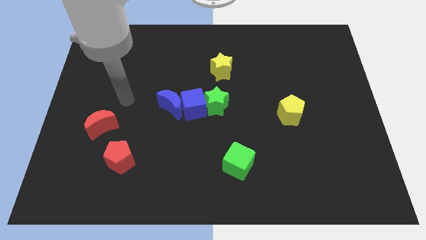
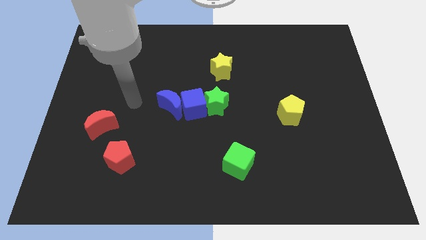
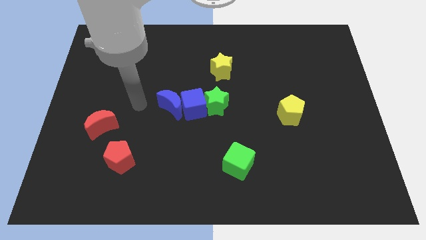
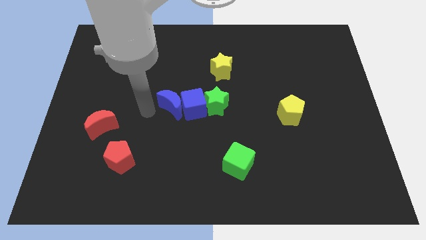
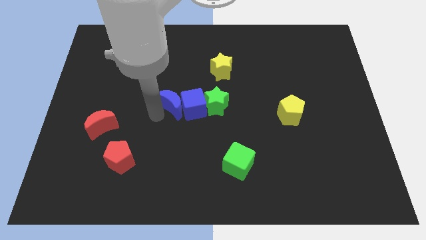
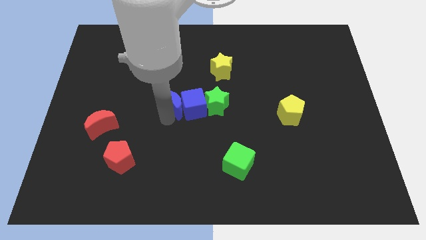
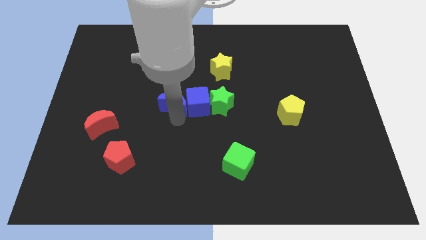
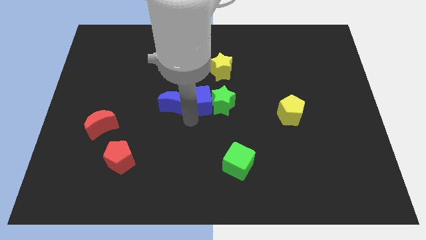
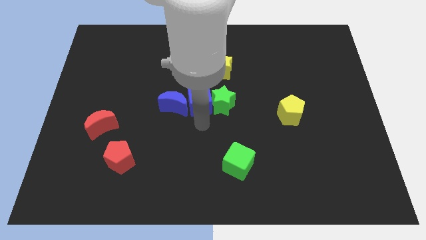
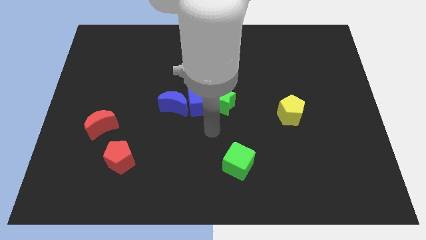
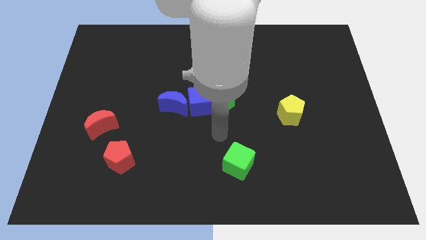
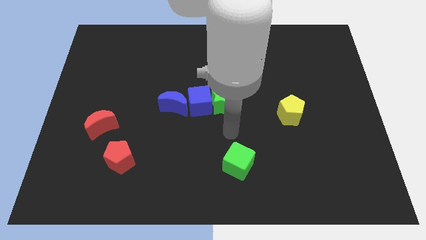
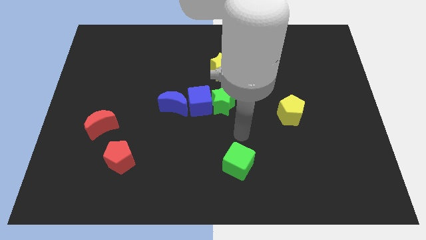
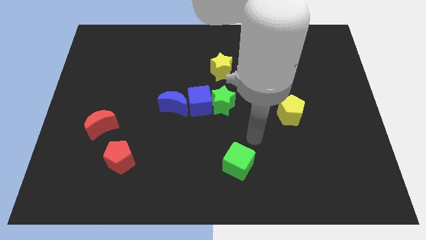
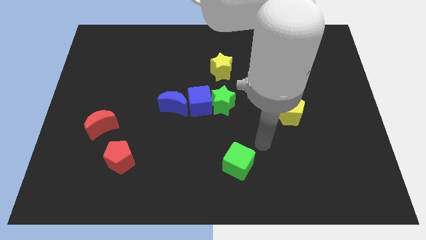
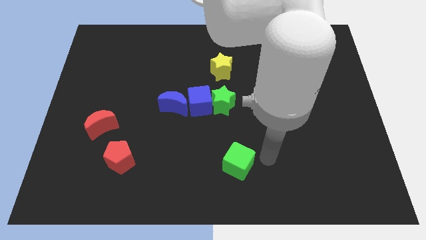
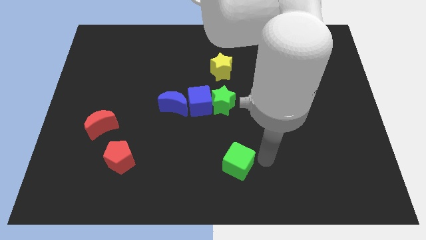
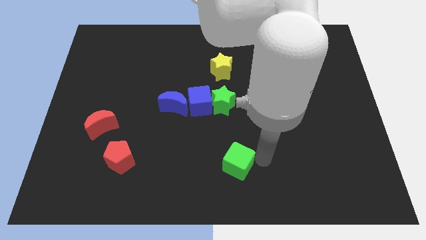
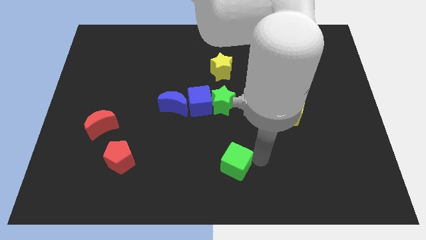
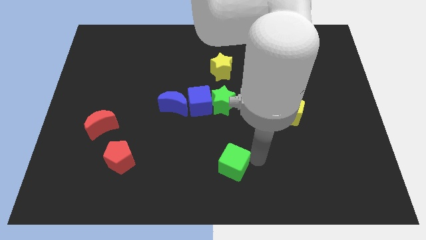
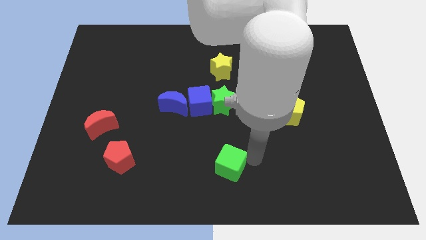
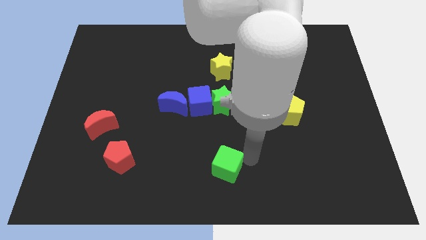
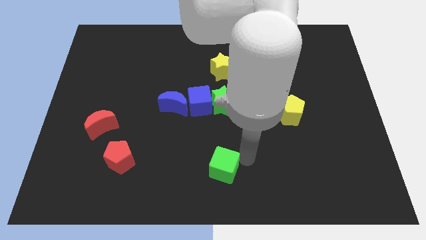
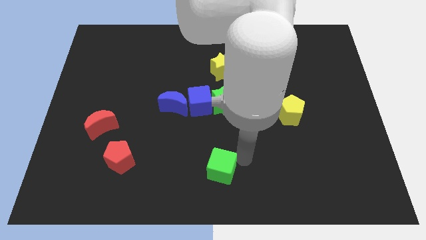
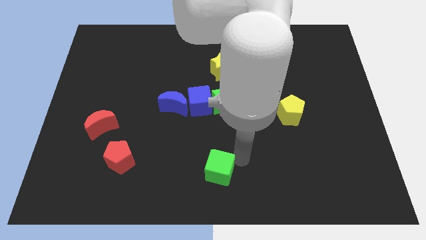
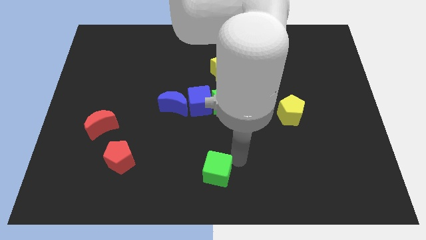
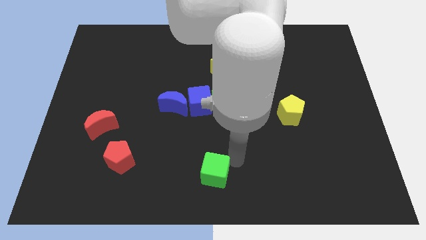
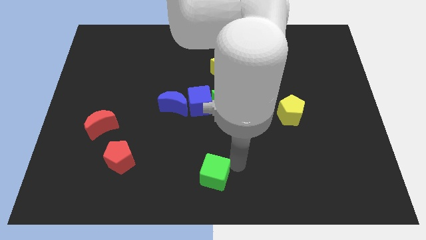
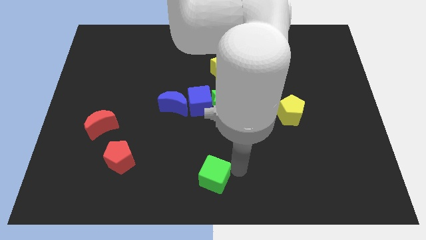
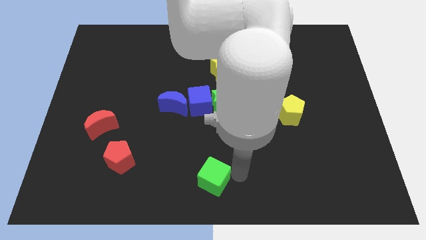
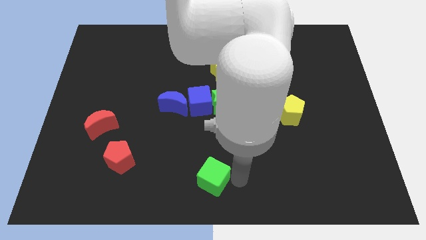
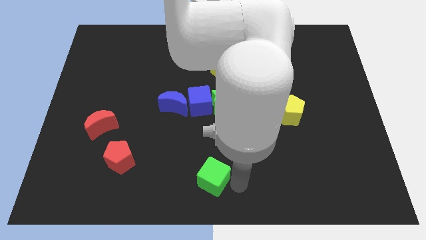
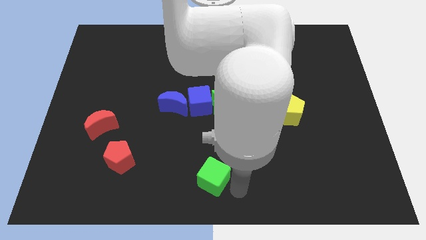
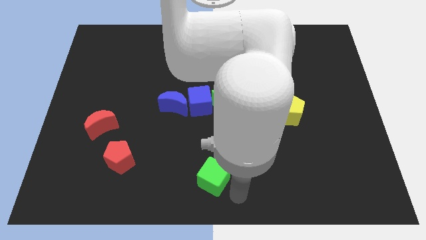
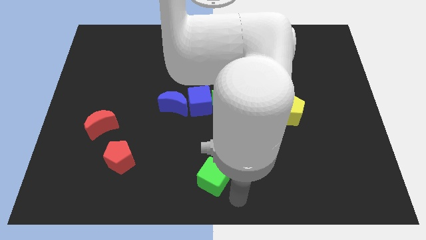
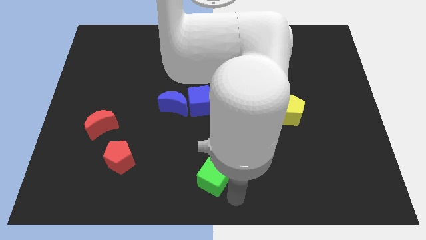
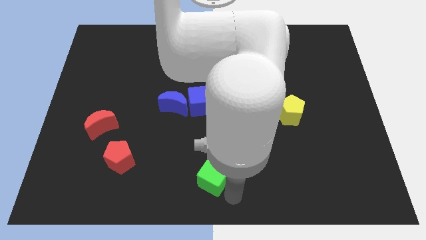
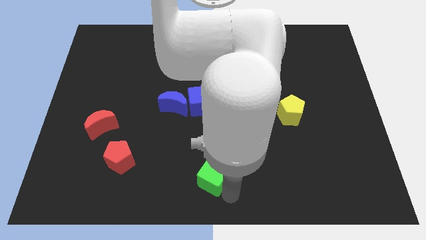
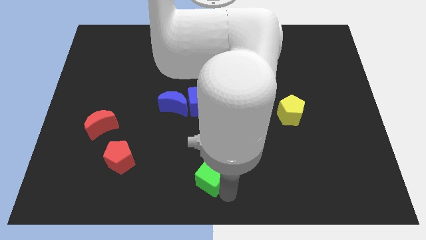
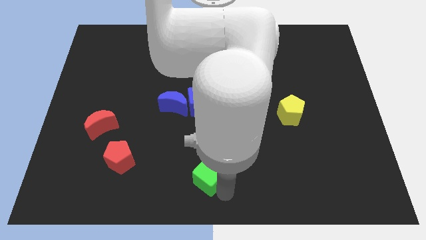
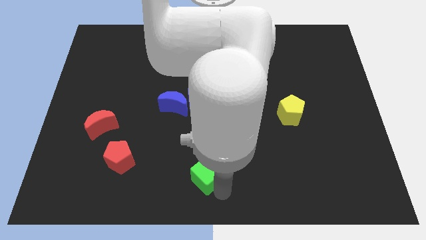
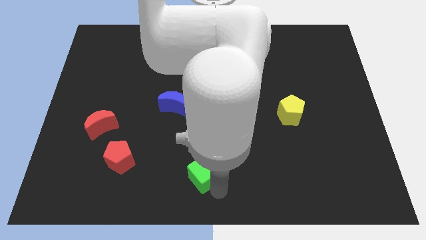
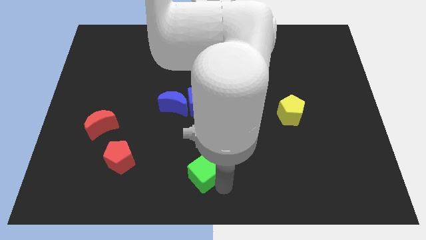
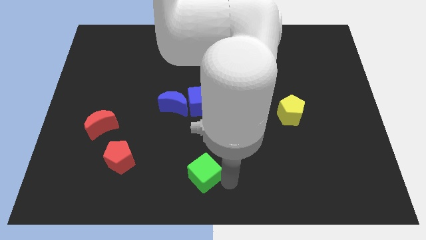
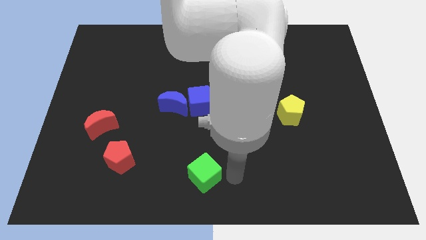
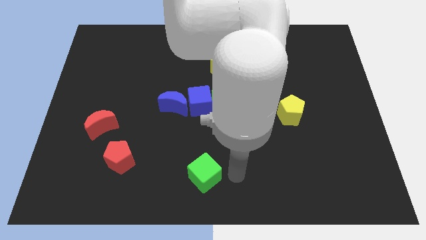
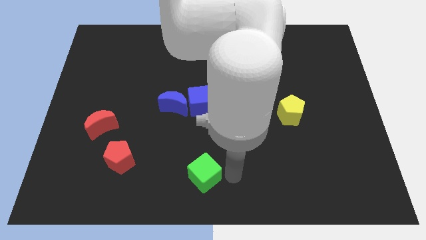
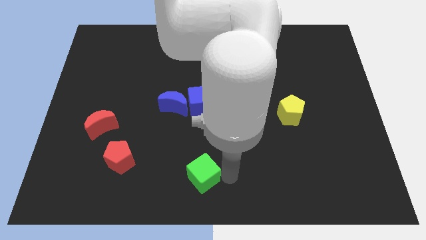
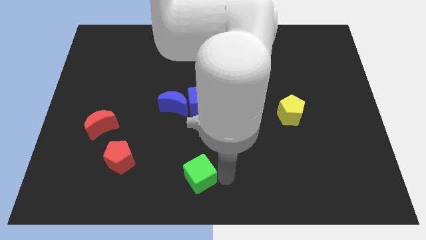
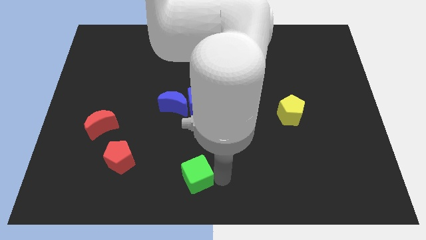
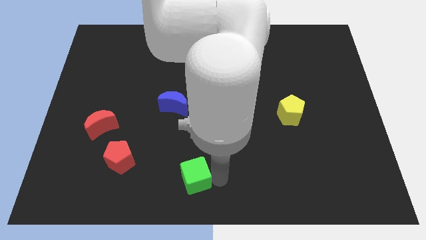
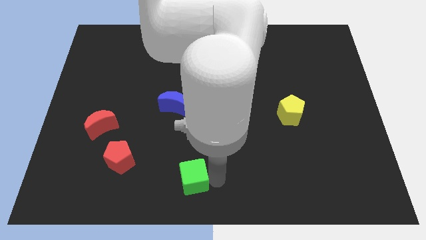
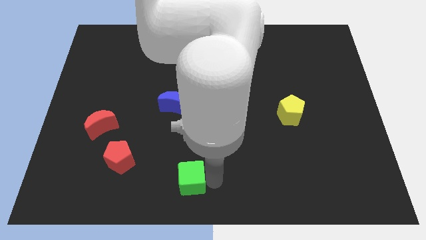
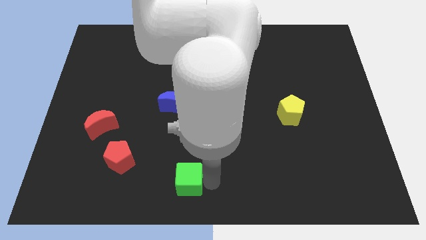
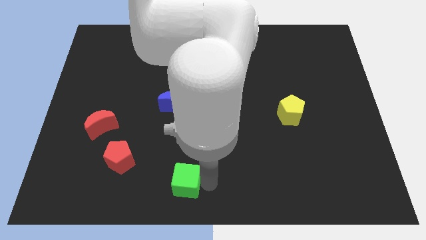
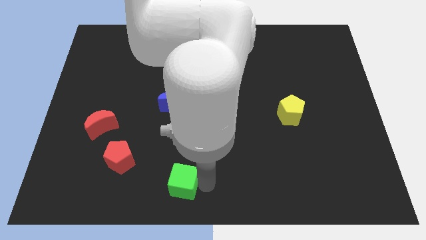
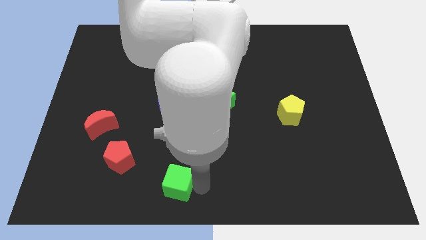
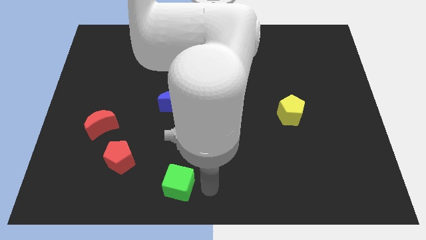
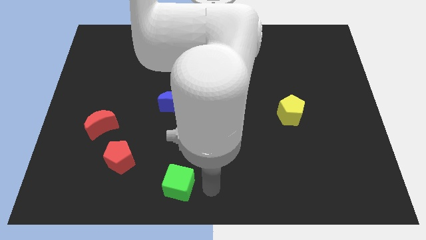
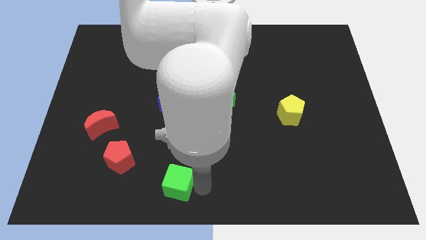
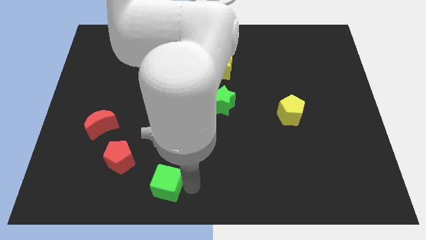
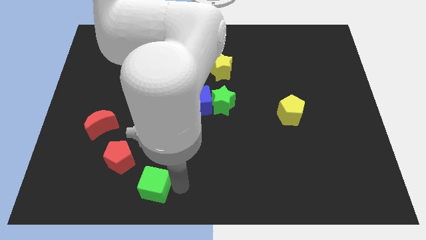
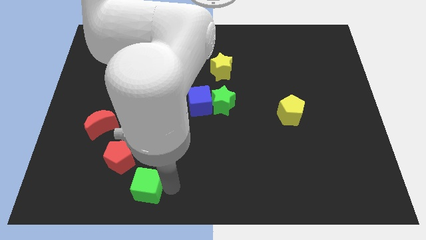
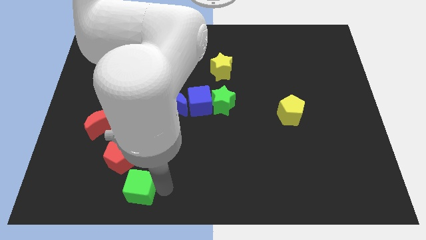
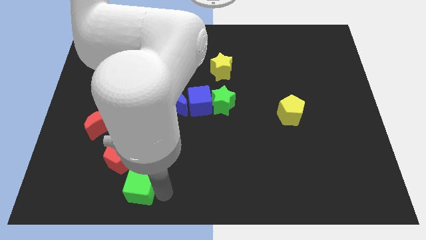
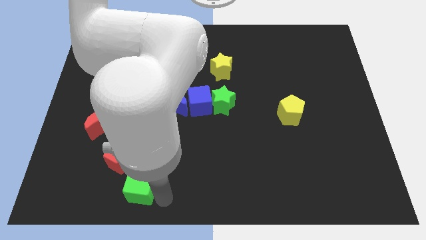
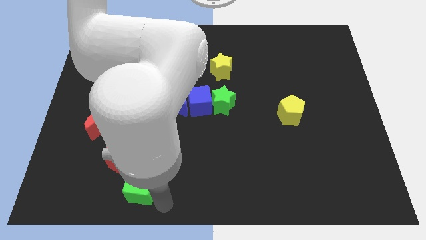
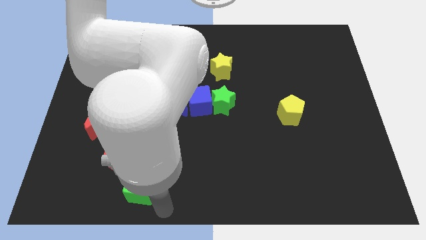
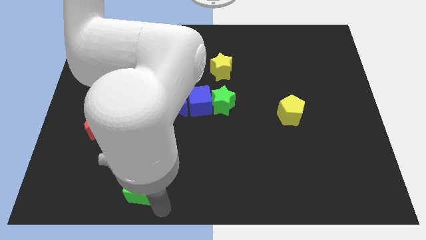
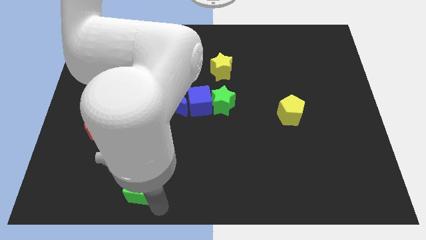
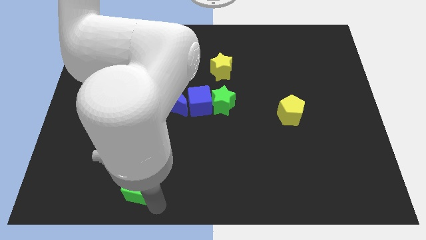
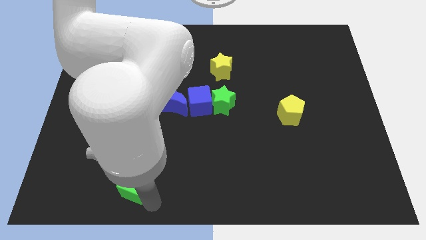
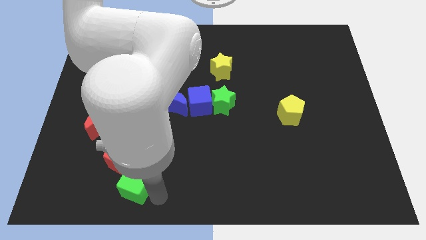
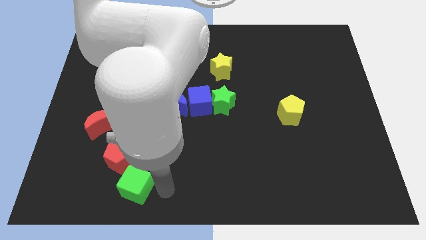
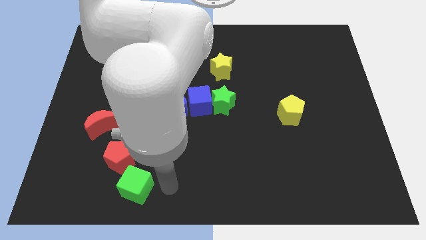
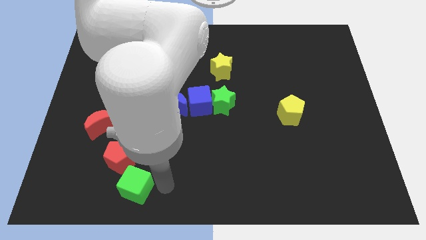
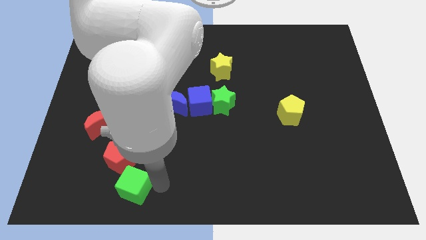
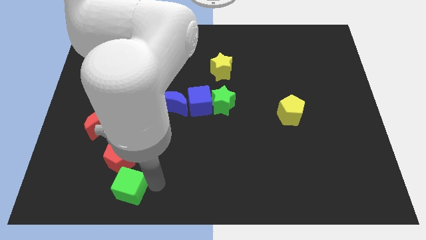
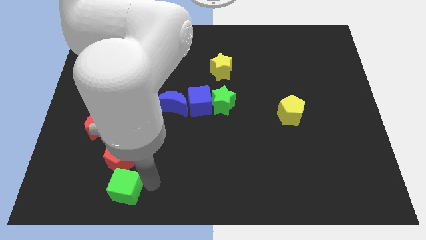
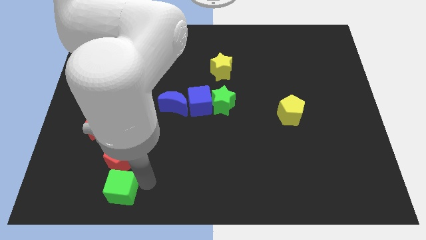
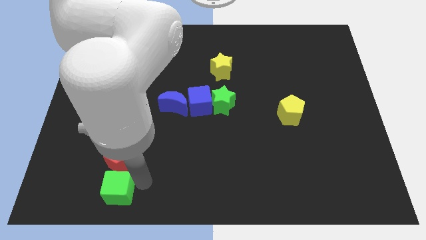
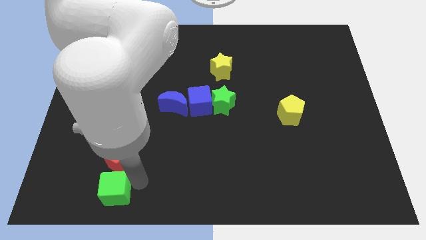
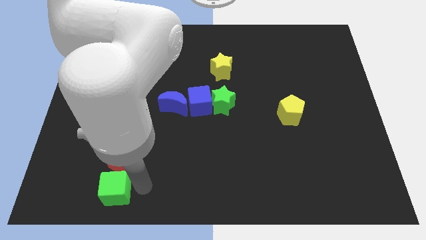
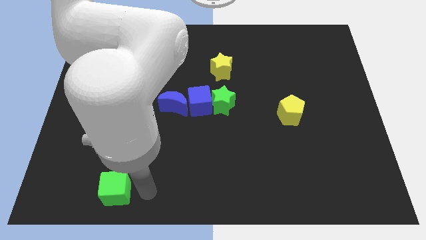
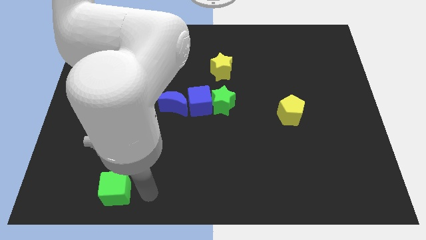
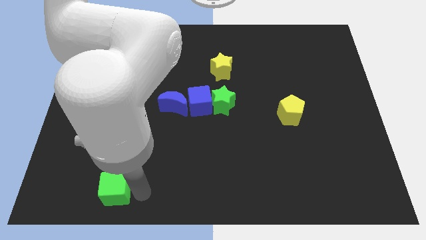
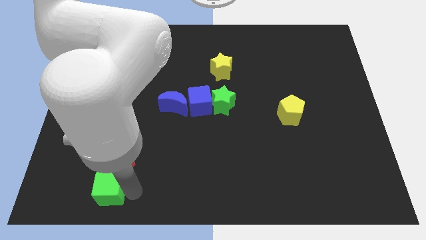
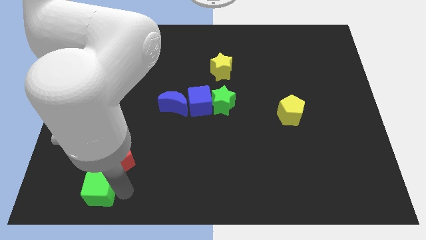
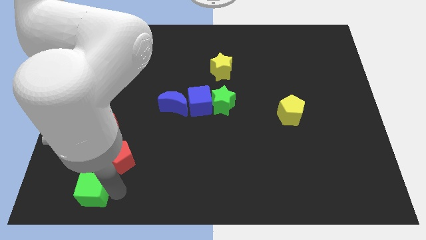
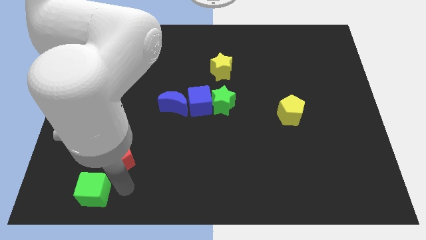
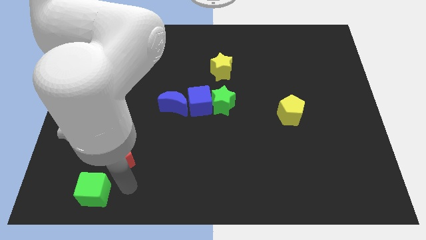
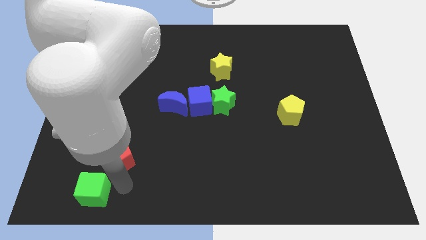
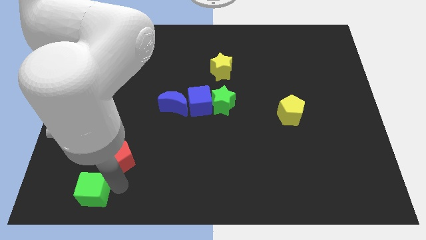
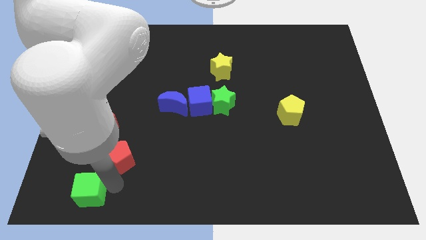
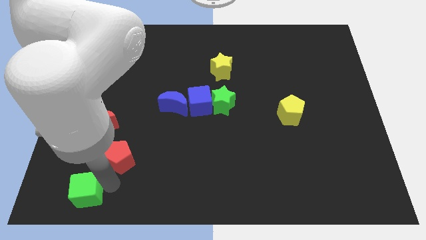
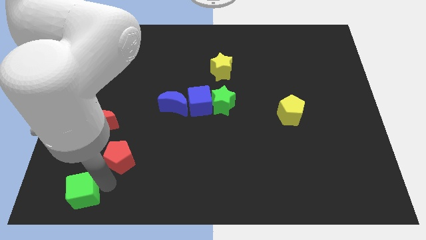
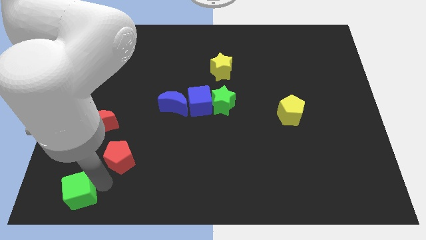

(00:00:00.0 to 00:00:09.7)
put the green cube to the lower left corner
